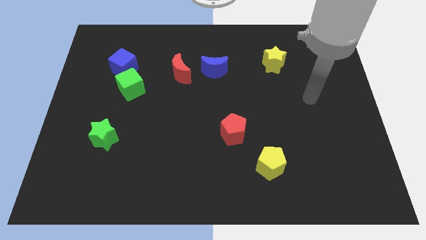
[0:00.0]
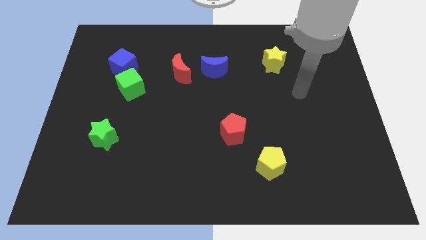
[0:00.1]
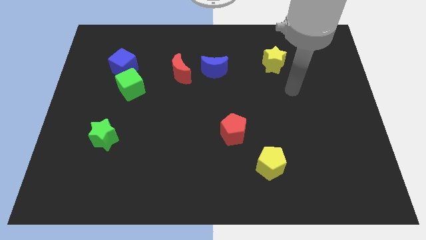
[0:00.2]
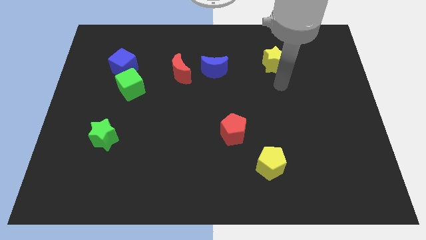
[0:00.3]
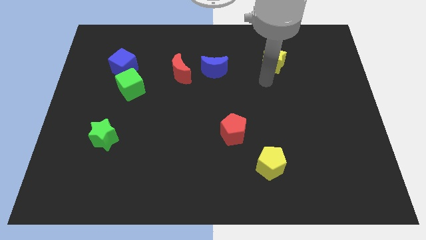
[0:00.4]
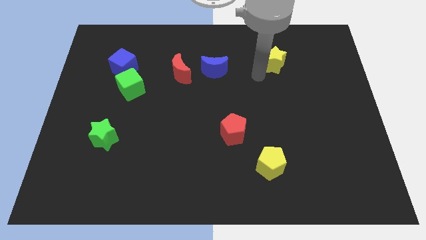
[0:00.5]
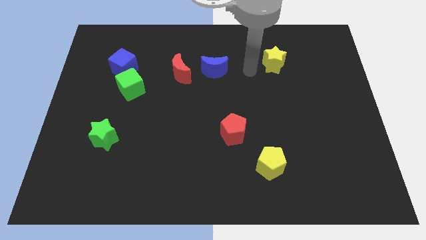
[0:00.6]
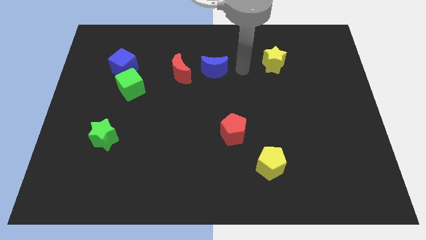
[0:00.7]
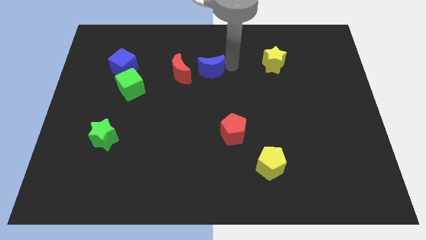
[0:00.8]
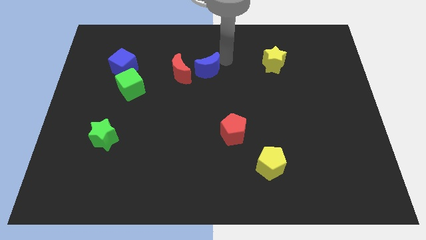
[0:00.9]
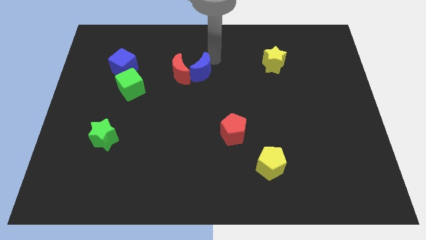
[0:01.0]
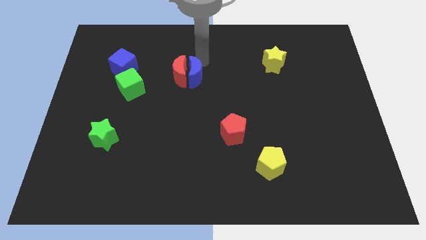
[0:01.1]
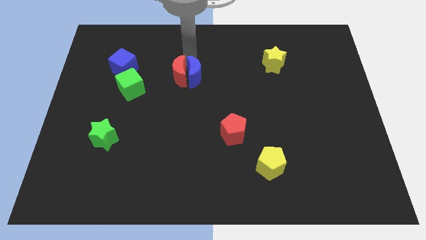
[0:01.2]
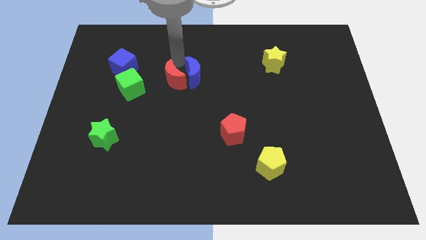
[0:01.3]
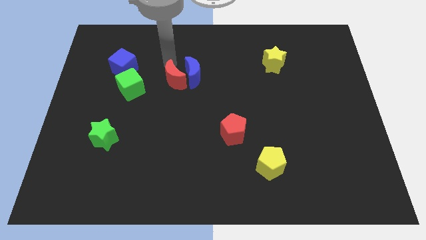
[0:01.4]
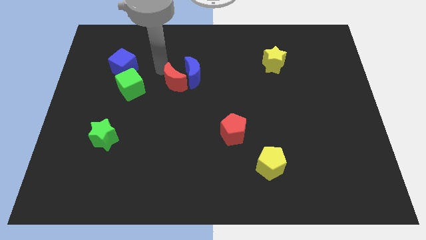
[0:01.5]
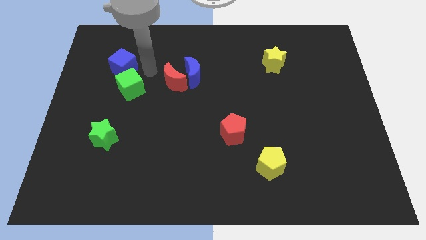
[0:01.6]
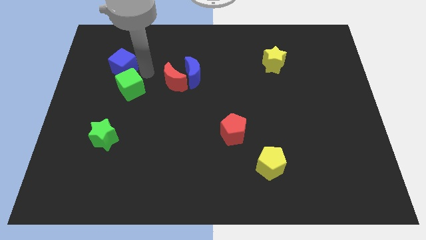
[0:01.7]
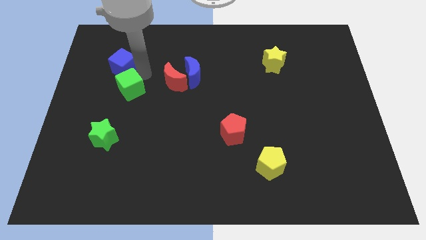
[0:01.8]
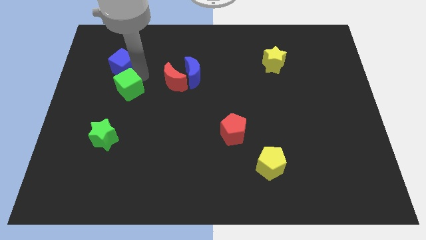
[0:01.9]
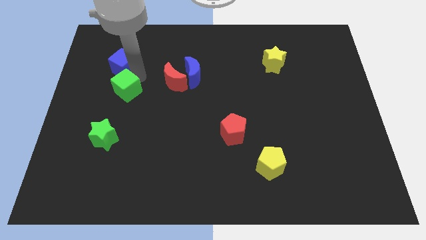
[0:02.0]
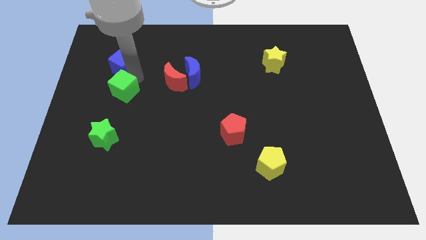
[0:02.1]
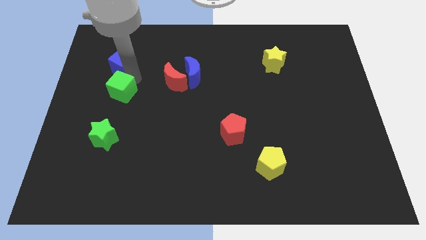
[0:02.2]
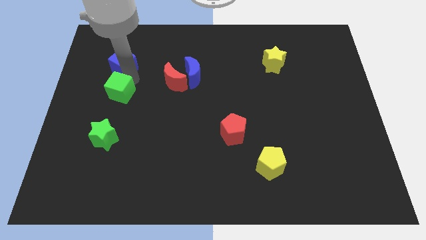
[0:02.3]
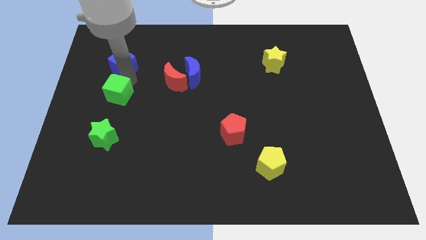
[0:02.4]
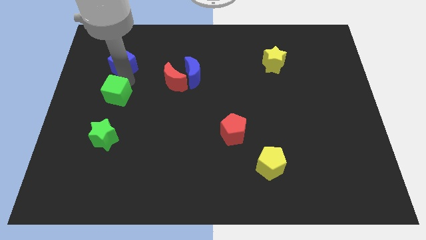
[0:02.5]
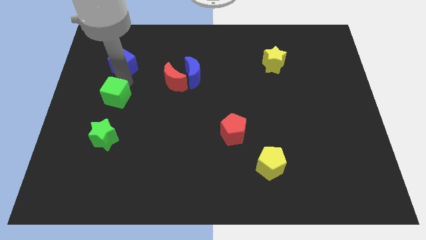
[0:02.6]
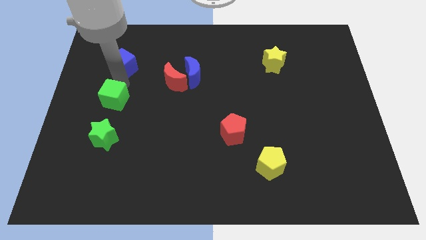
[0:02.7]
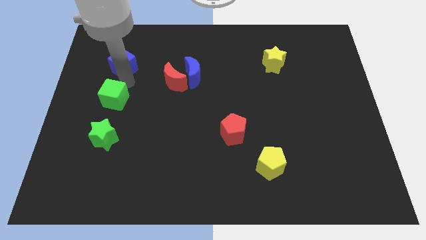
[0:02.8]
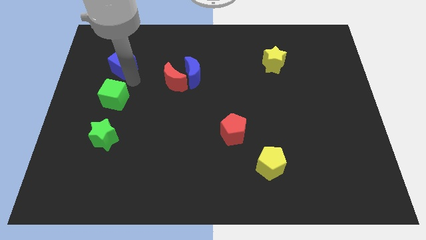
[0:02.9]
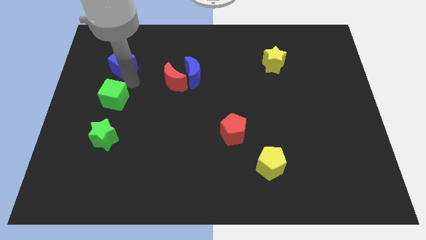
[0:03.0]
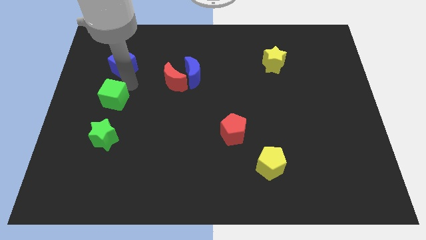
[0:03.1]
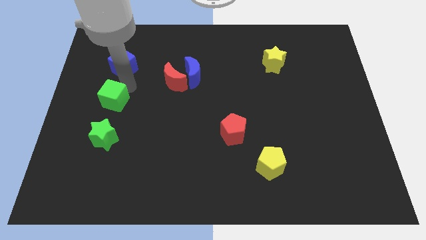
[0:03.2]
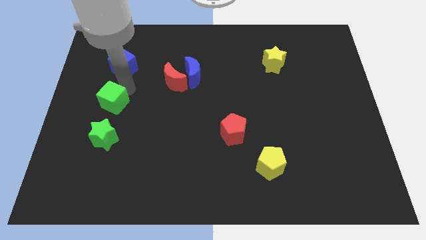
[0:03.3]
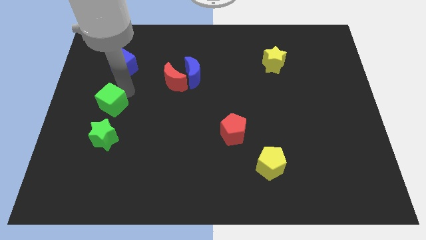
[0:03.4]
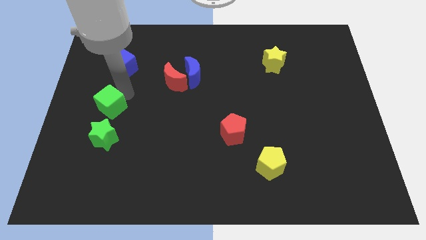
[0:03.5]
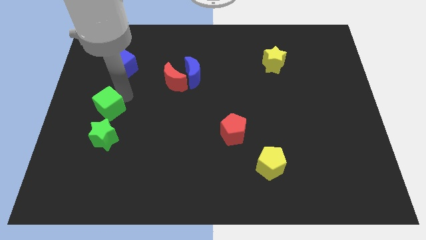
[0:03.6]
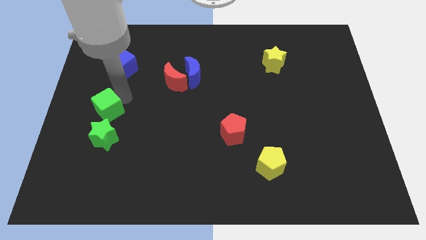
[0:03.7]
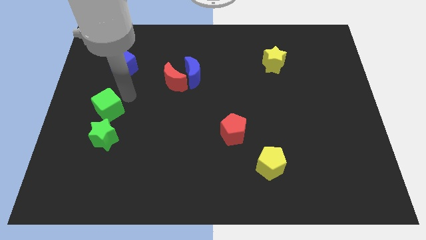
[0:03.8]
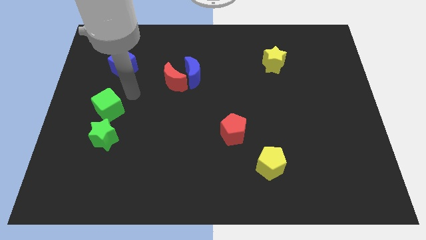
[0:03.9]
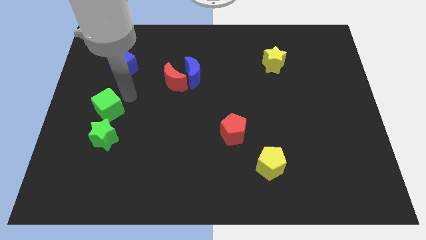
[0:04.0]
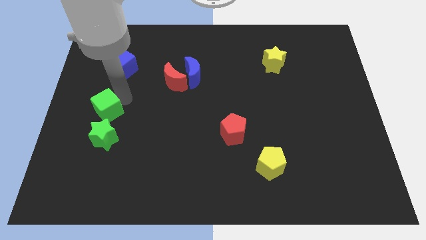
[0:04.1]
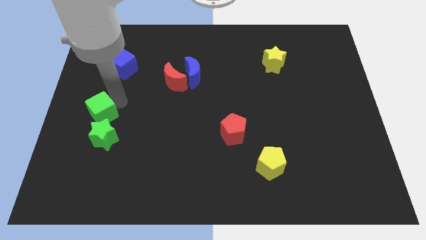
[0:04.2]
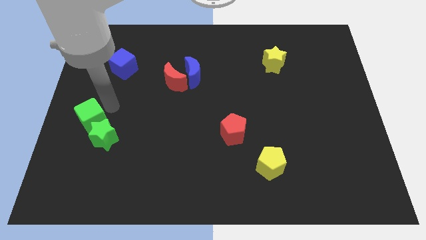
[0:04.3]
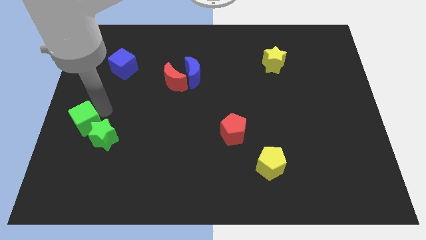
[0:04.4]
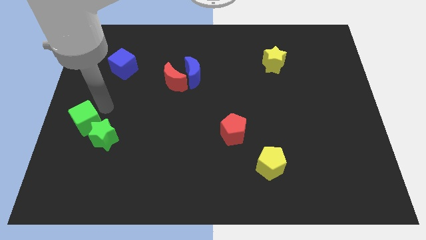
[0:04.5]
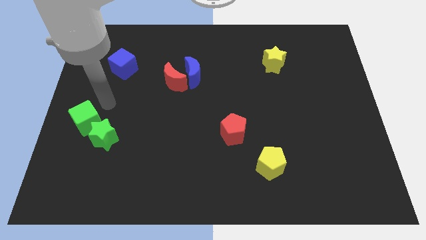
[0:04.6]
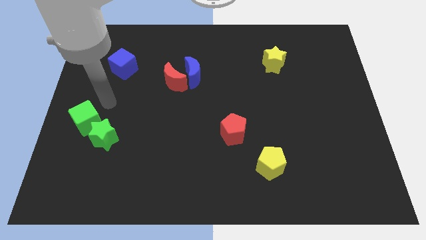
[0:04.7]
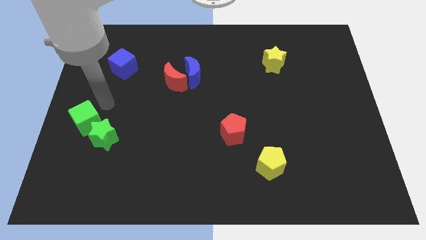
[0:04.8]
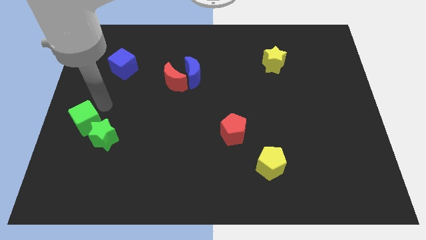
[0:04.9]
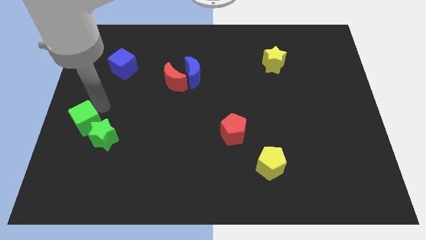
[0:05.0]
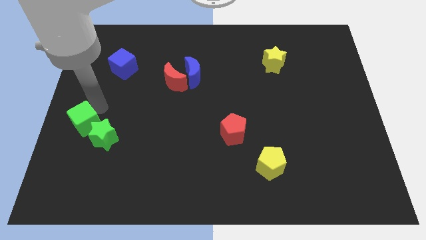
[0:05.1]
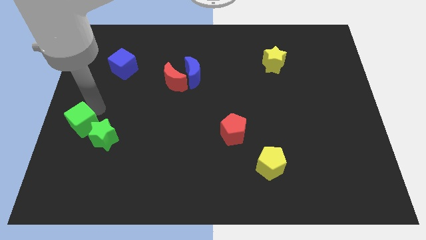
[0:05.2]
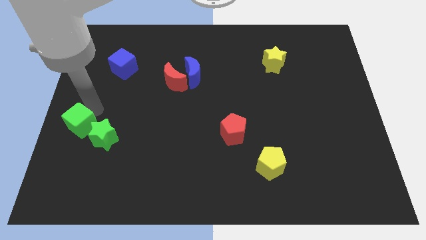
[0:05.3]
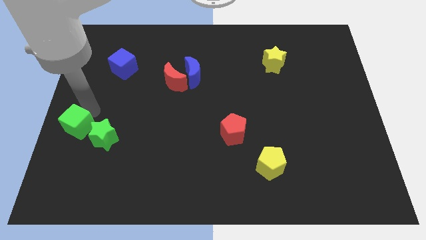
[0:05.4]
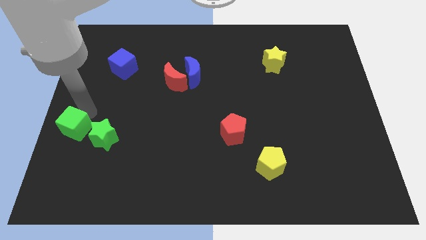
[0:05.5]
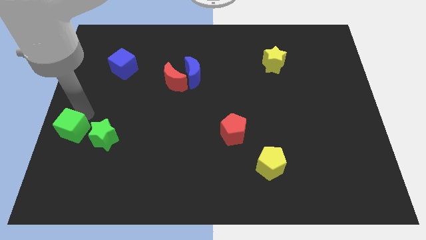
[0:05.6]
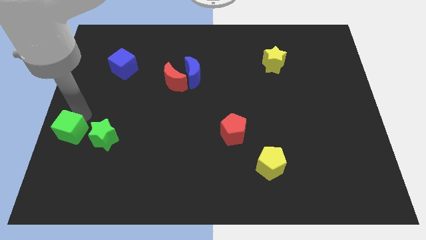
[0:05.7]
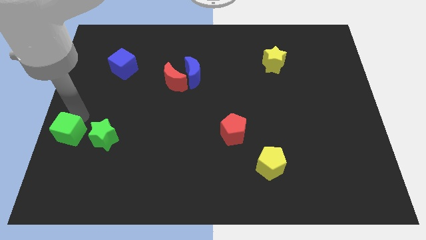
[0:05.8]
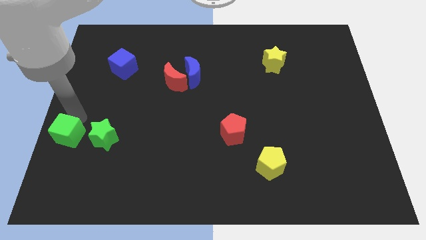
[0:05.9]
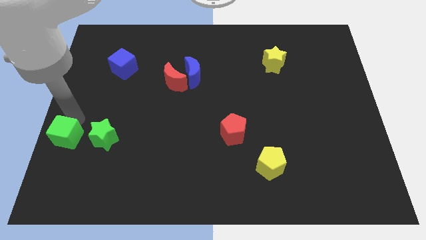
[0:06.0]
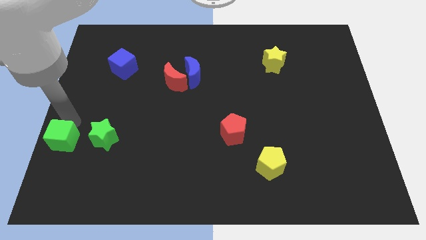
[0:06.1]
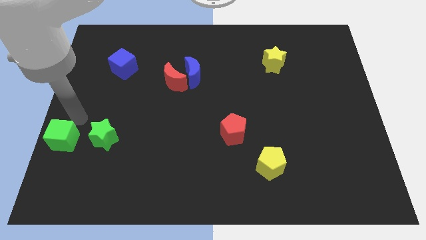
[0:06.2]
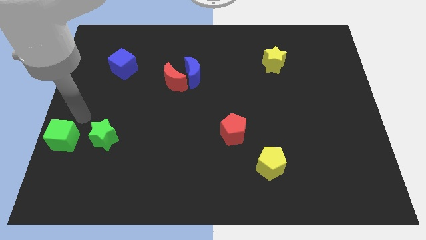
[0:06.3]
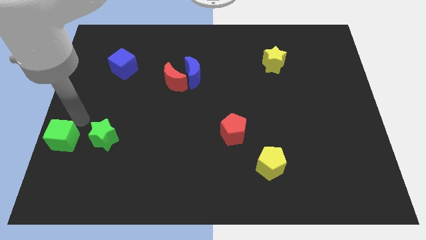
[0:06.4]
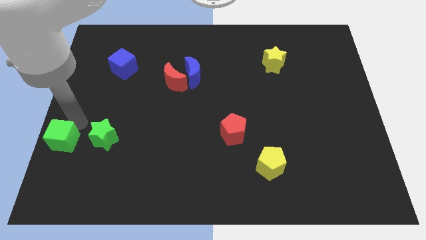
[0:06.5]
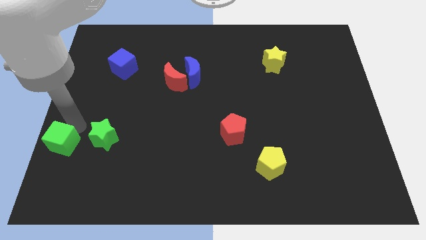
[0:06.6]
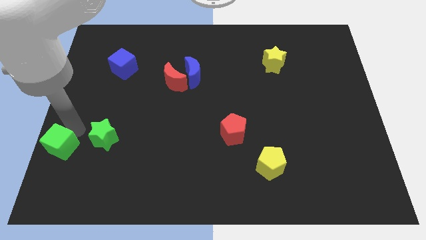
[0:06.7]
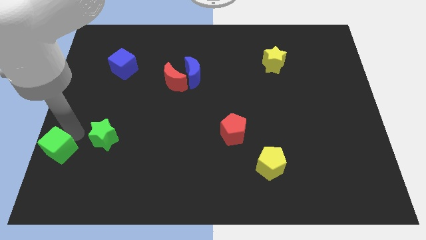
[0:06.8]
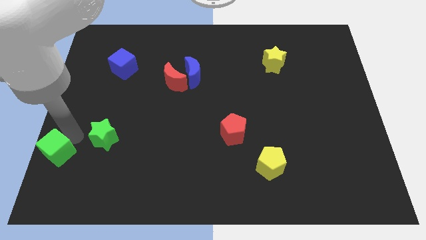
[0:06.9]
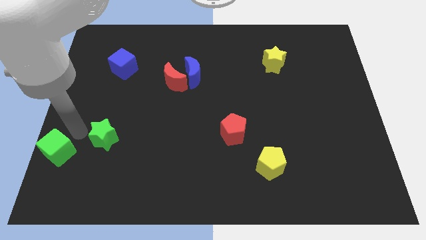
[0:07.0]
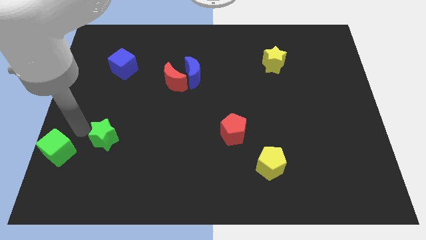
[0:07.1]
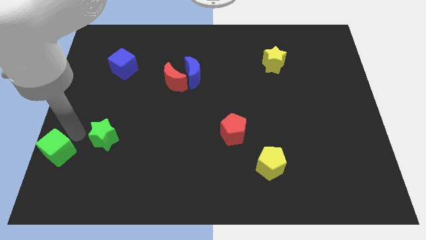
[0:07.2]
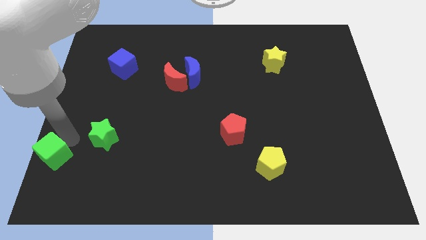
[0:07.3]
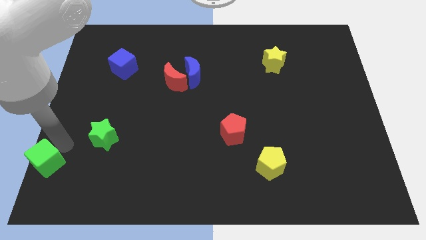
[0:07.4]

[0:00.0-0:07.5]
move the green cube to the bottom left
